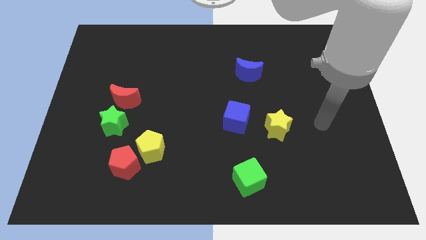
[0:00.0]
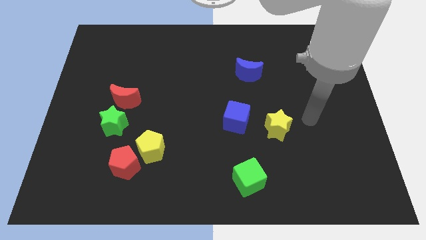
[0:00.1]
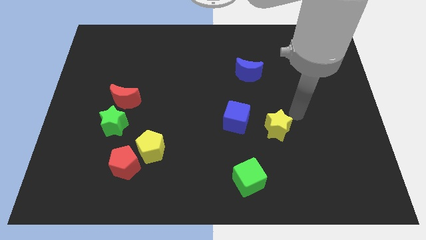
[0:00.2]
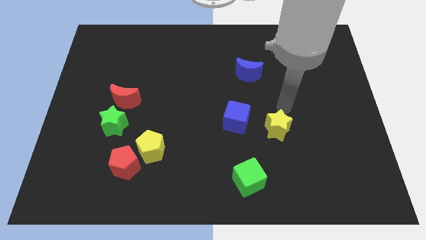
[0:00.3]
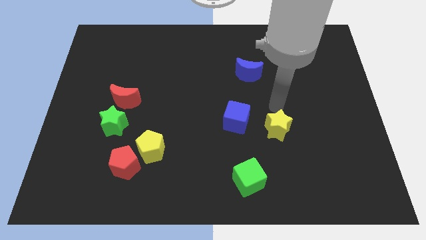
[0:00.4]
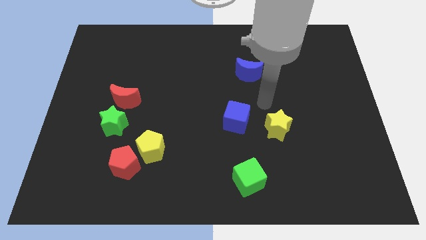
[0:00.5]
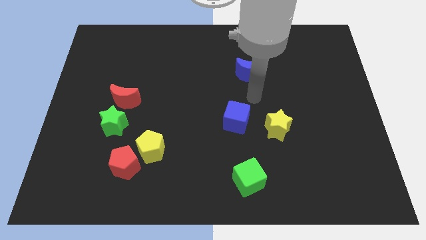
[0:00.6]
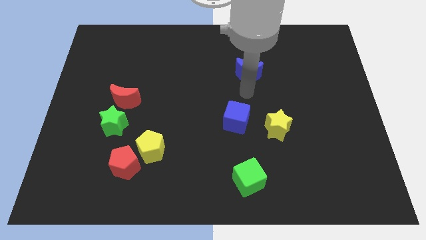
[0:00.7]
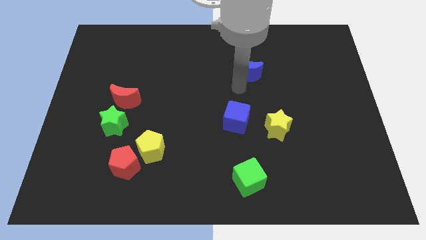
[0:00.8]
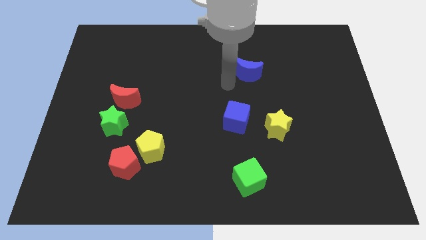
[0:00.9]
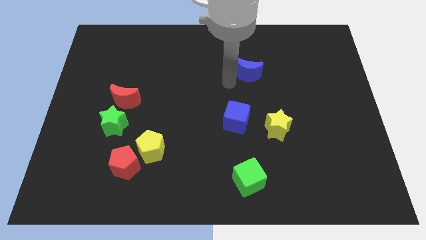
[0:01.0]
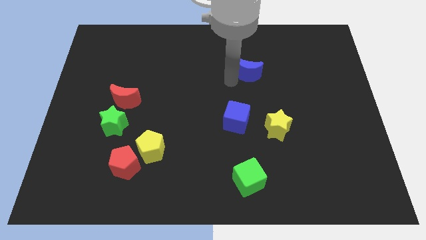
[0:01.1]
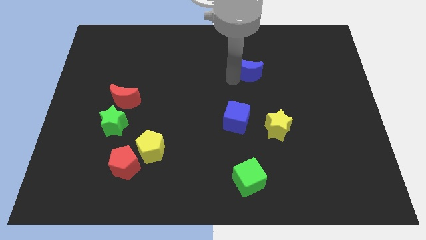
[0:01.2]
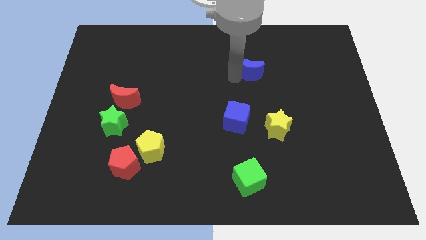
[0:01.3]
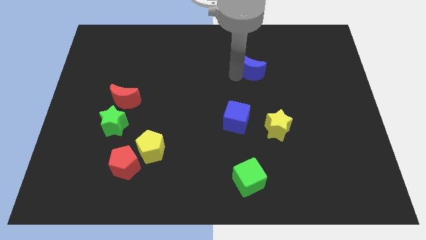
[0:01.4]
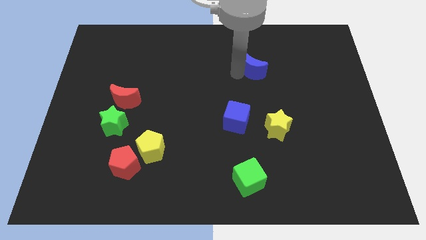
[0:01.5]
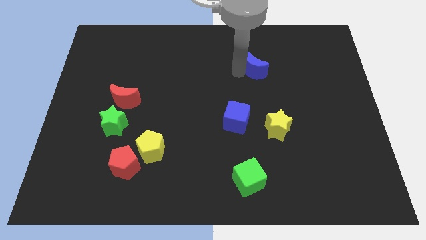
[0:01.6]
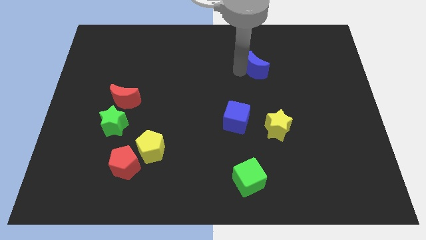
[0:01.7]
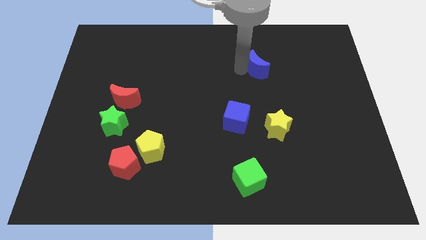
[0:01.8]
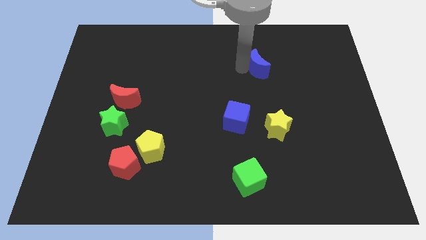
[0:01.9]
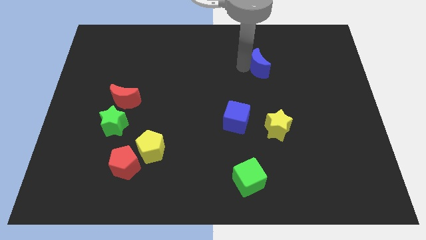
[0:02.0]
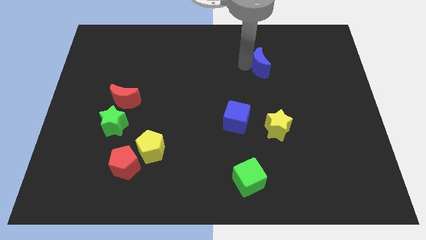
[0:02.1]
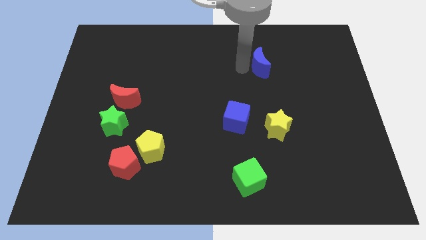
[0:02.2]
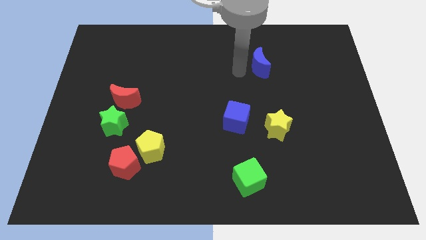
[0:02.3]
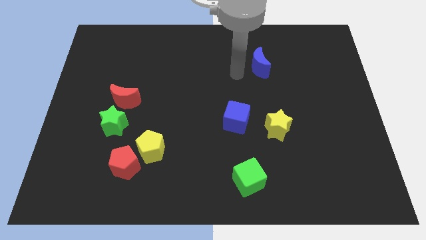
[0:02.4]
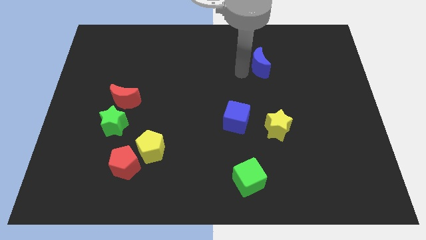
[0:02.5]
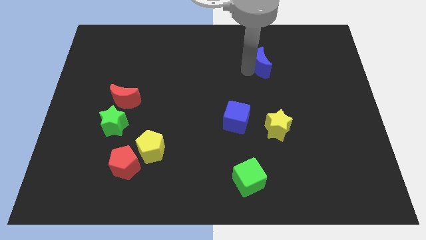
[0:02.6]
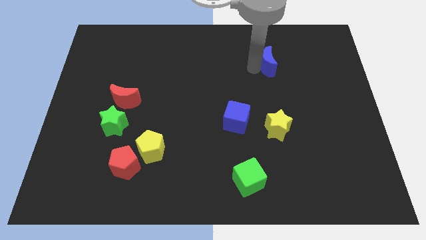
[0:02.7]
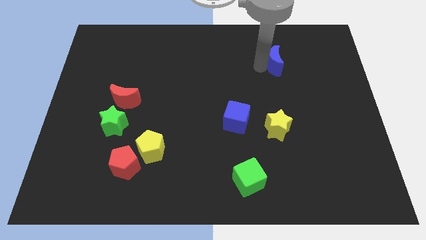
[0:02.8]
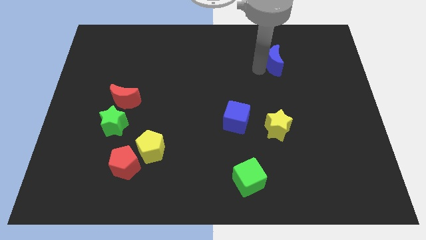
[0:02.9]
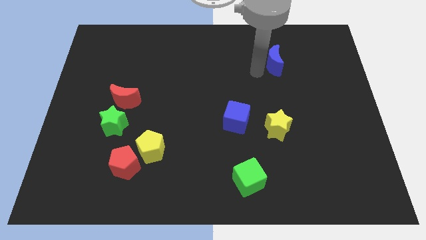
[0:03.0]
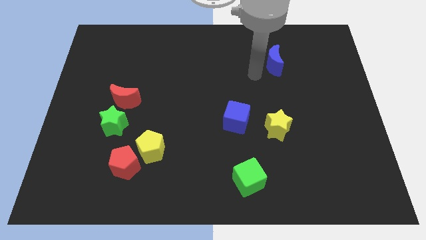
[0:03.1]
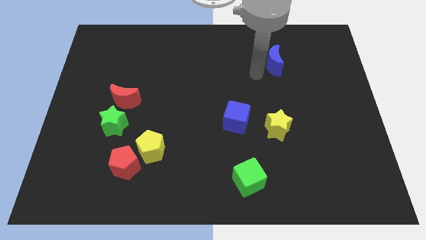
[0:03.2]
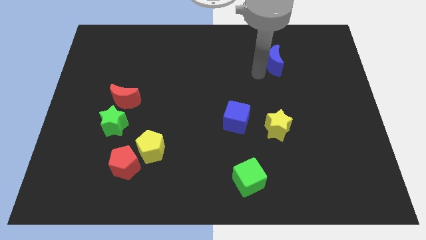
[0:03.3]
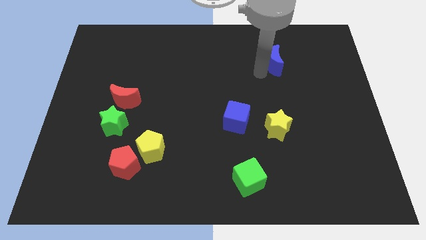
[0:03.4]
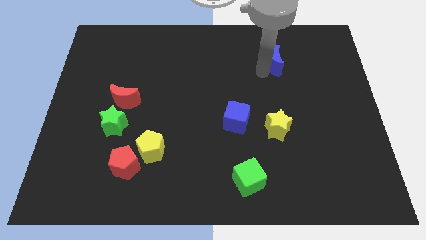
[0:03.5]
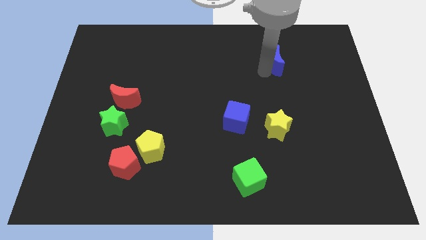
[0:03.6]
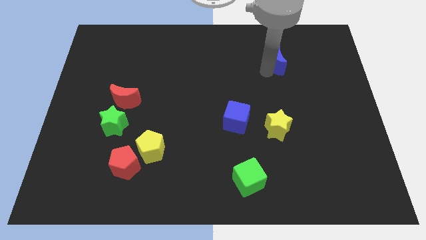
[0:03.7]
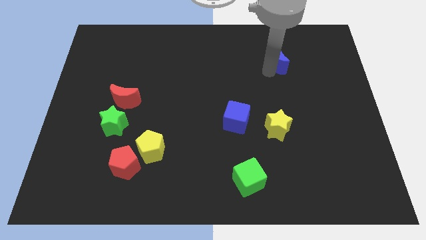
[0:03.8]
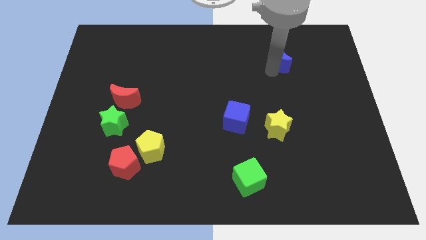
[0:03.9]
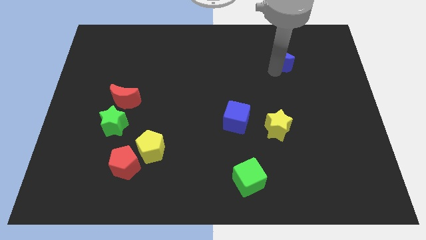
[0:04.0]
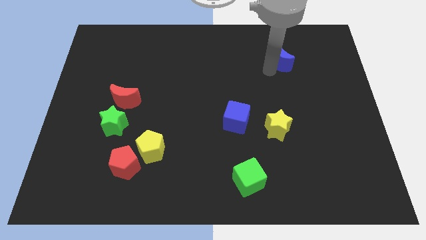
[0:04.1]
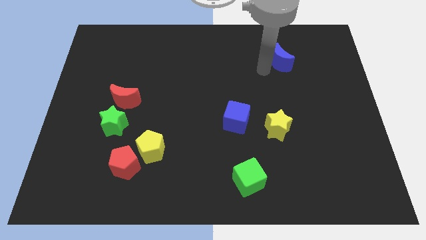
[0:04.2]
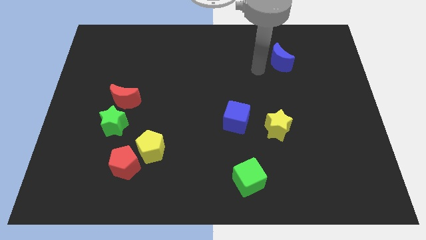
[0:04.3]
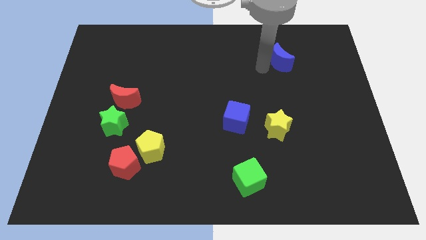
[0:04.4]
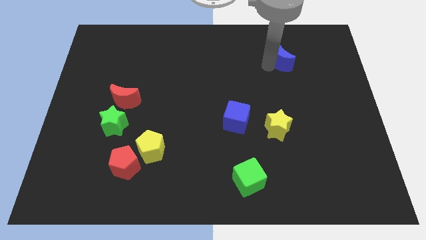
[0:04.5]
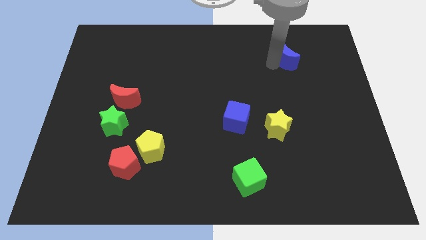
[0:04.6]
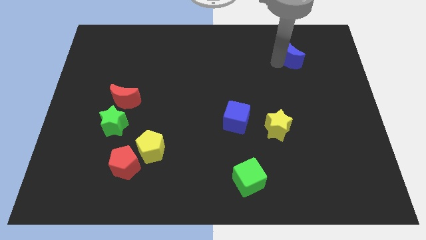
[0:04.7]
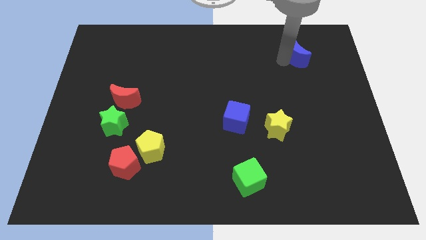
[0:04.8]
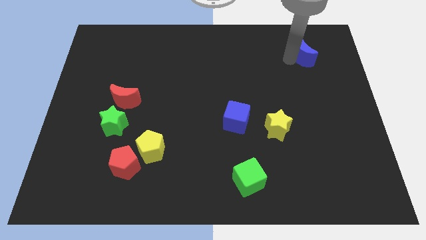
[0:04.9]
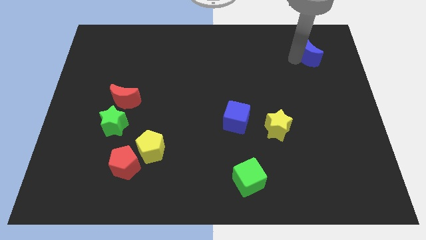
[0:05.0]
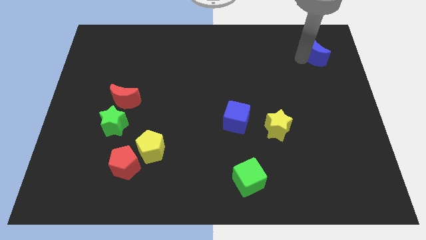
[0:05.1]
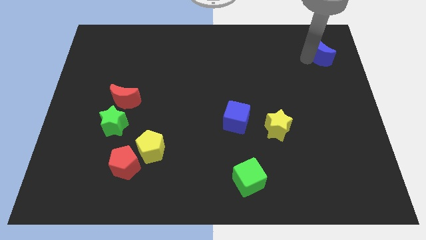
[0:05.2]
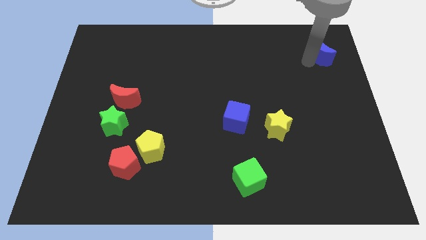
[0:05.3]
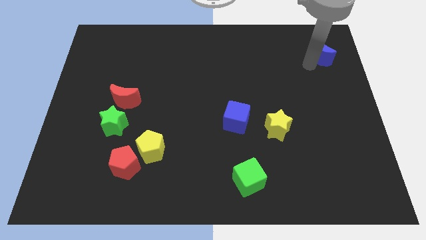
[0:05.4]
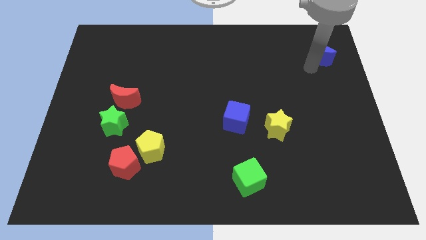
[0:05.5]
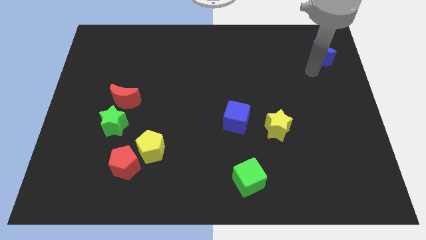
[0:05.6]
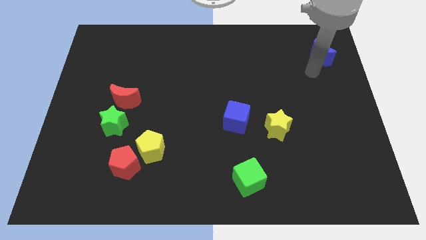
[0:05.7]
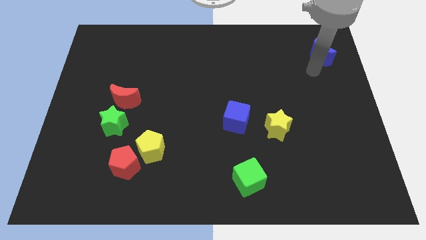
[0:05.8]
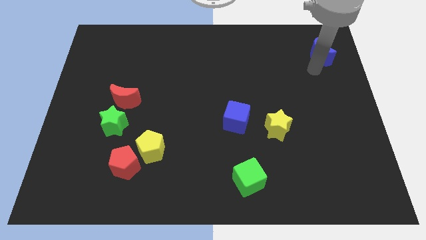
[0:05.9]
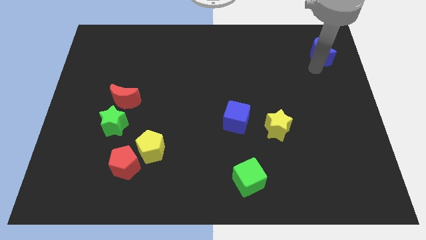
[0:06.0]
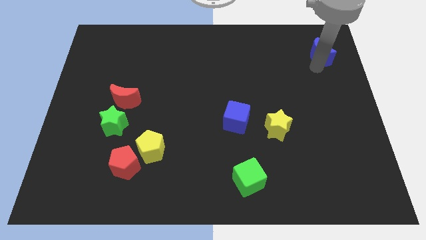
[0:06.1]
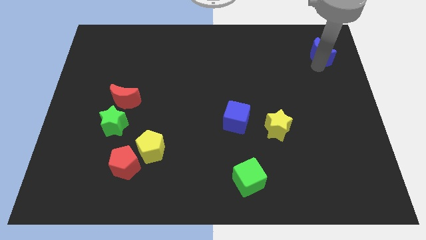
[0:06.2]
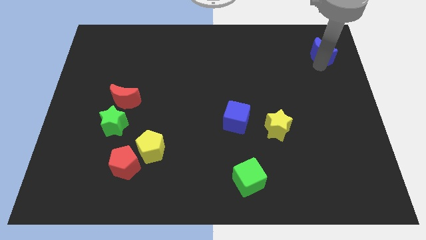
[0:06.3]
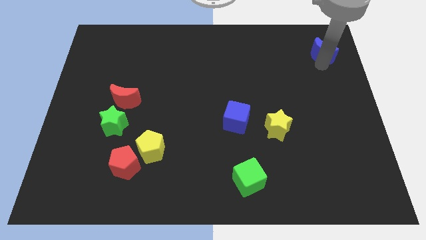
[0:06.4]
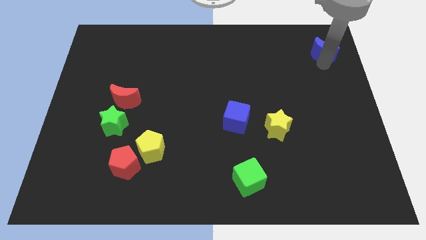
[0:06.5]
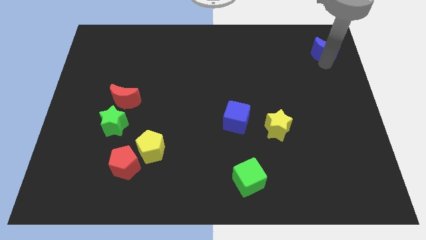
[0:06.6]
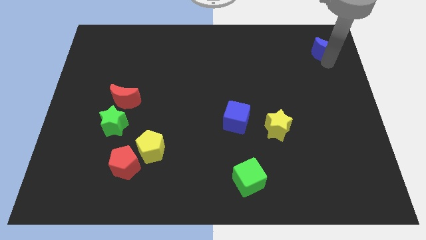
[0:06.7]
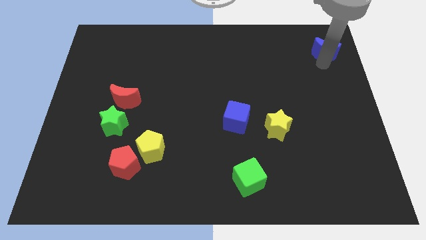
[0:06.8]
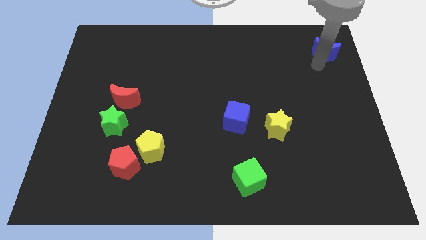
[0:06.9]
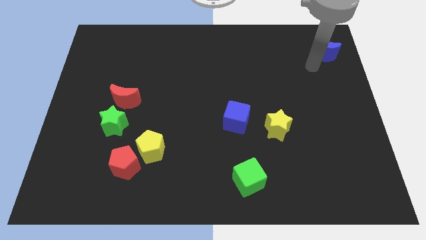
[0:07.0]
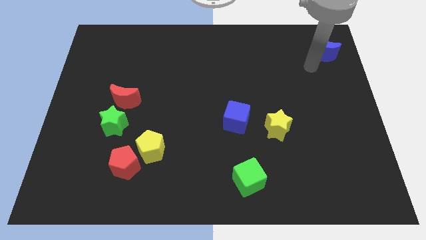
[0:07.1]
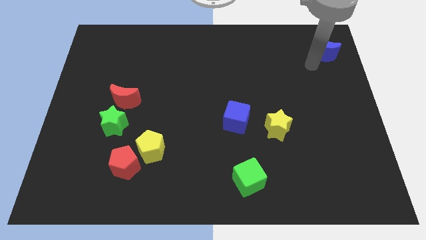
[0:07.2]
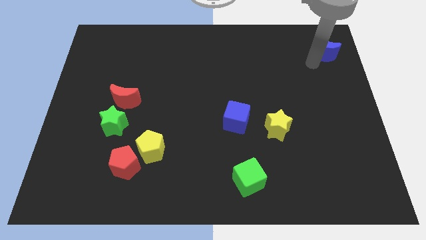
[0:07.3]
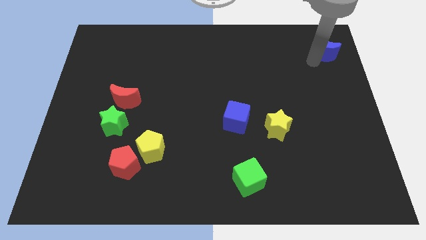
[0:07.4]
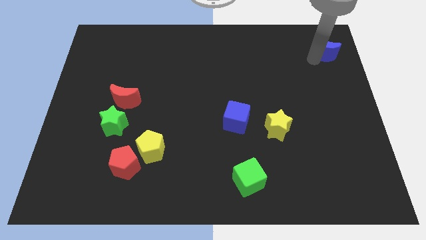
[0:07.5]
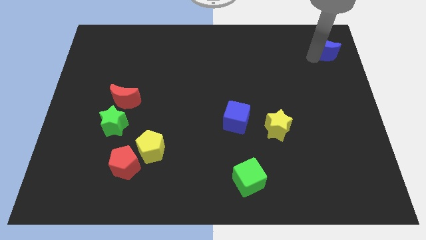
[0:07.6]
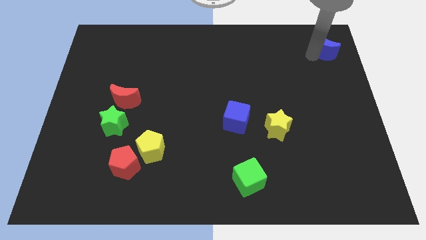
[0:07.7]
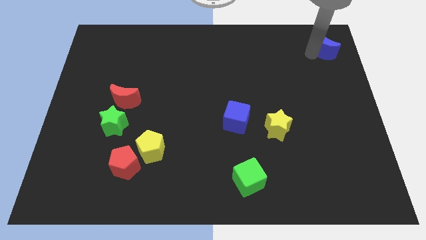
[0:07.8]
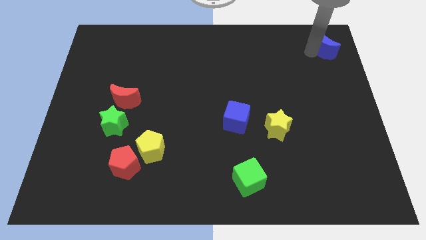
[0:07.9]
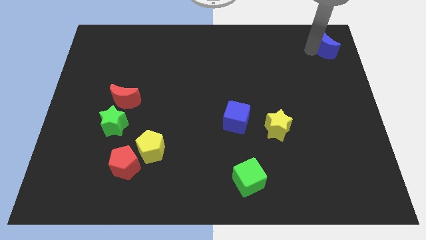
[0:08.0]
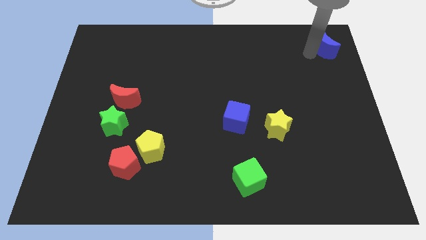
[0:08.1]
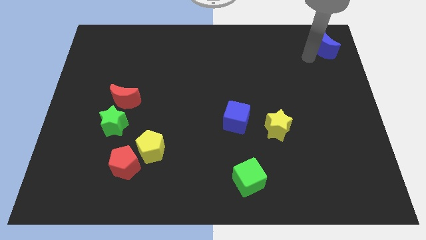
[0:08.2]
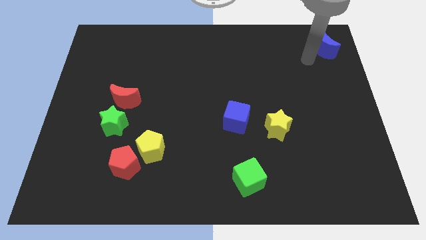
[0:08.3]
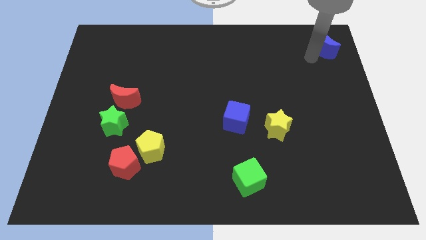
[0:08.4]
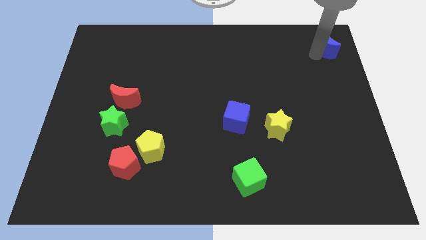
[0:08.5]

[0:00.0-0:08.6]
slide the blue moon to the top right
